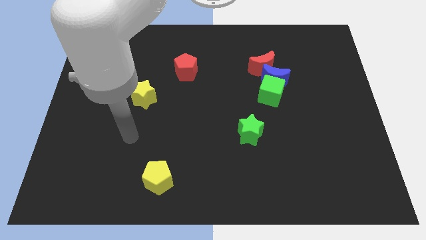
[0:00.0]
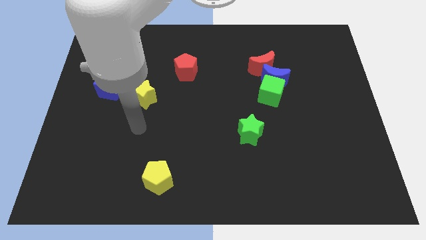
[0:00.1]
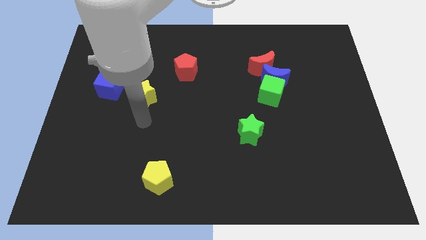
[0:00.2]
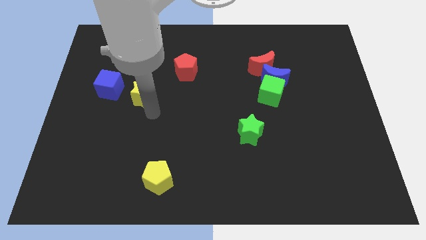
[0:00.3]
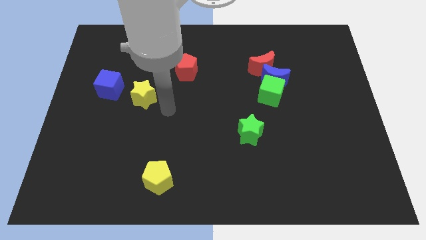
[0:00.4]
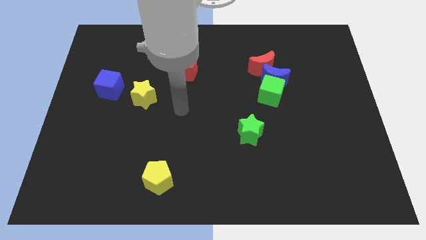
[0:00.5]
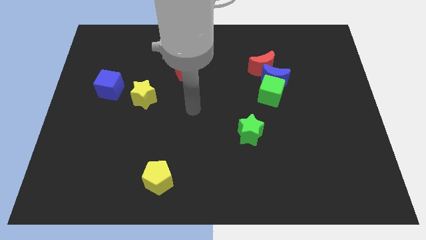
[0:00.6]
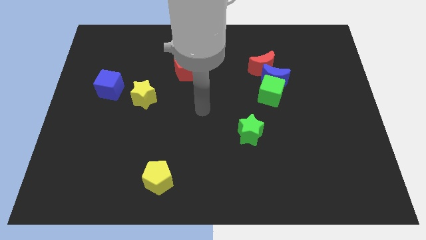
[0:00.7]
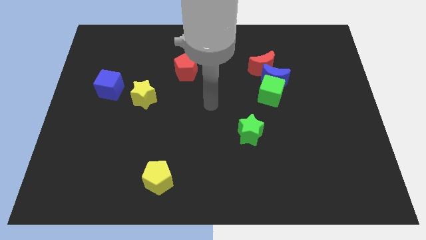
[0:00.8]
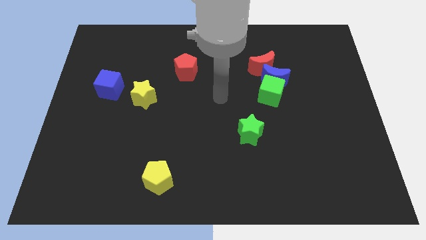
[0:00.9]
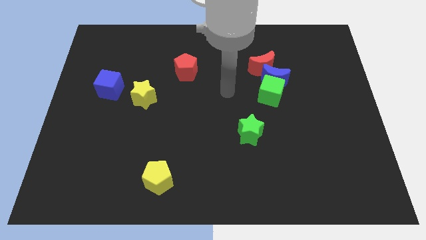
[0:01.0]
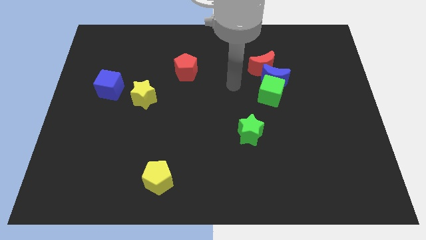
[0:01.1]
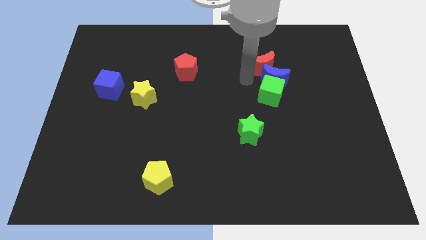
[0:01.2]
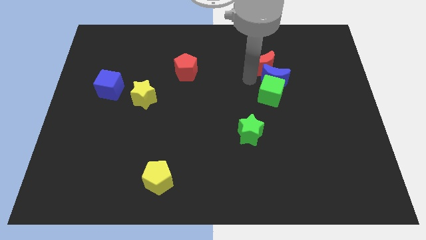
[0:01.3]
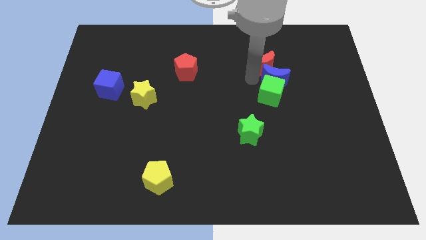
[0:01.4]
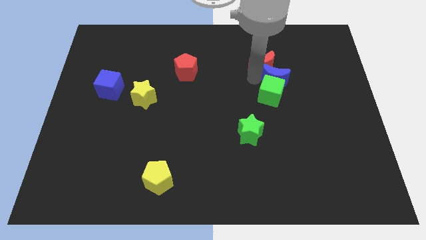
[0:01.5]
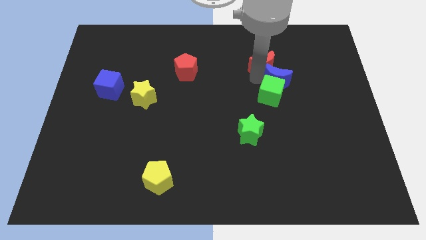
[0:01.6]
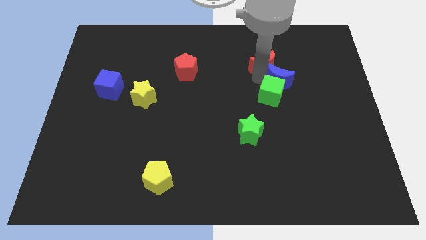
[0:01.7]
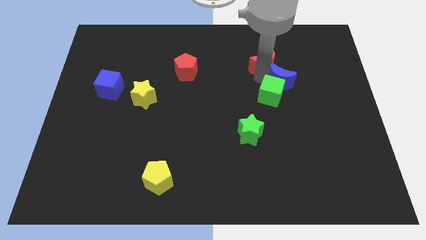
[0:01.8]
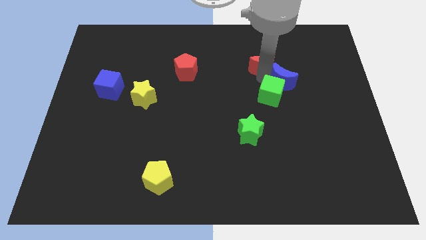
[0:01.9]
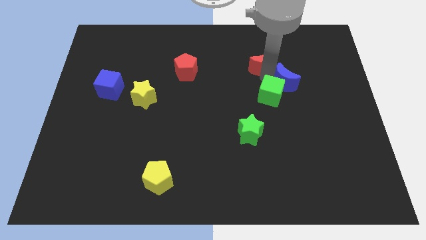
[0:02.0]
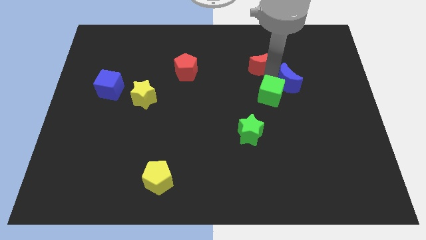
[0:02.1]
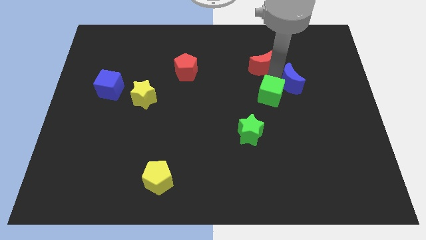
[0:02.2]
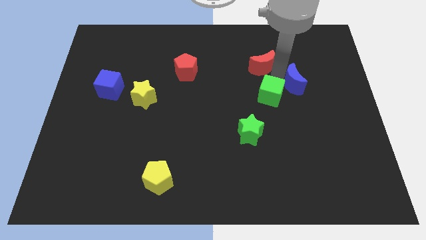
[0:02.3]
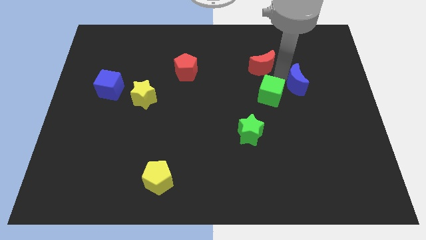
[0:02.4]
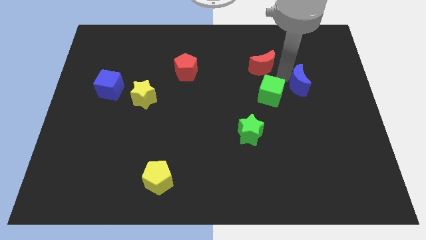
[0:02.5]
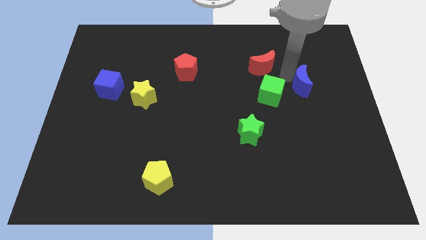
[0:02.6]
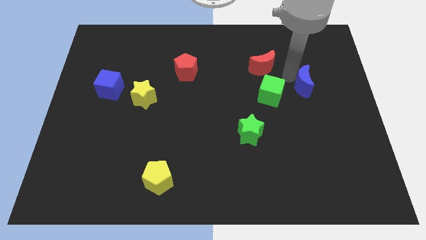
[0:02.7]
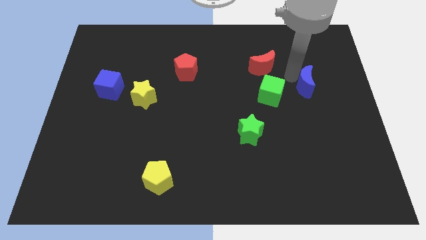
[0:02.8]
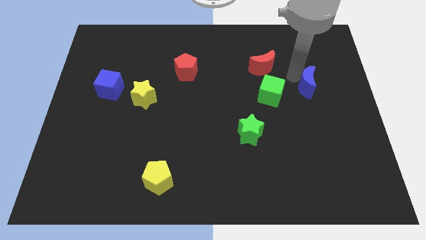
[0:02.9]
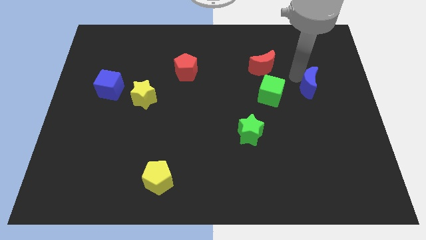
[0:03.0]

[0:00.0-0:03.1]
separate the blue moon from the green cube and red moon

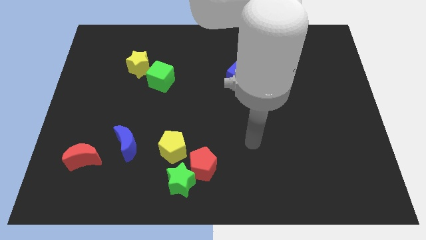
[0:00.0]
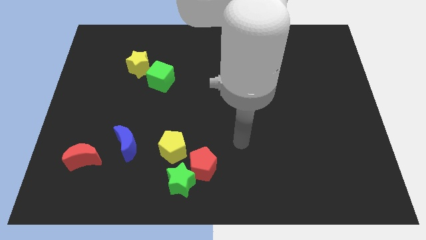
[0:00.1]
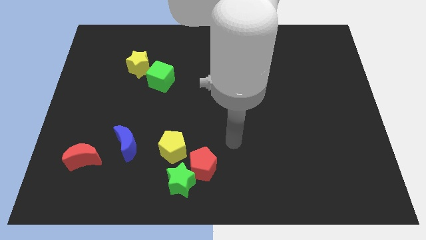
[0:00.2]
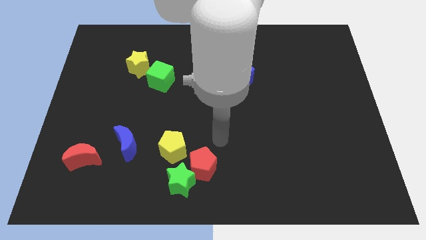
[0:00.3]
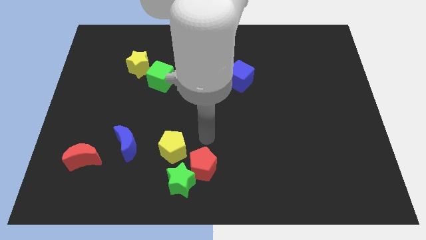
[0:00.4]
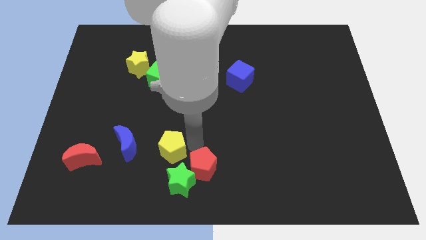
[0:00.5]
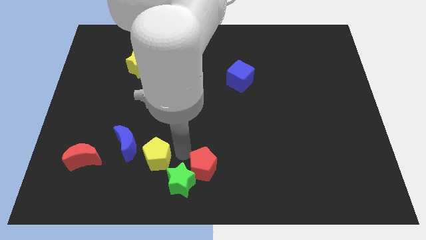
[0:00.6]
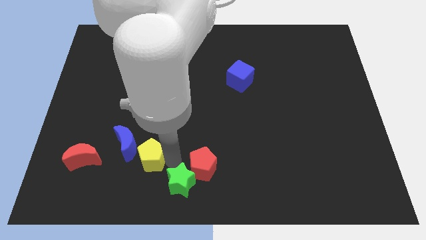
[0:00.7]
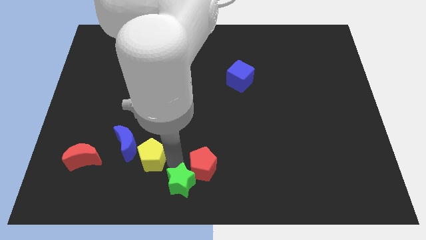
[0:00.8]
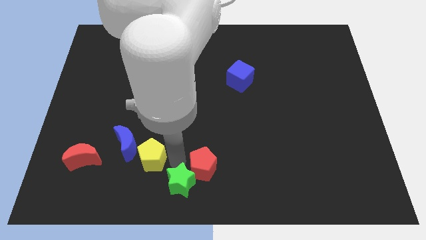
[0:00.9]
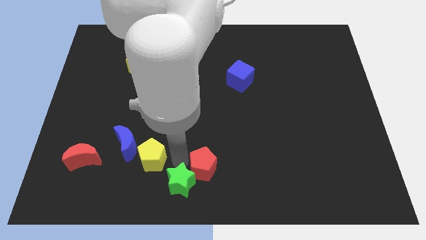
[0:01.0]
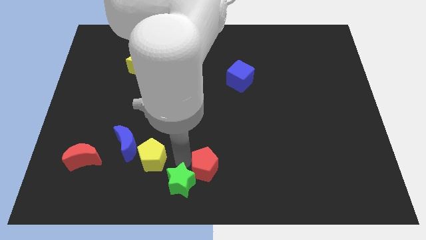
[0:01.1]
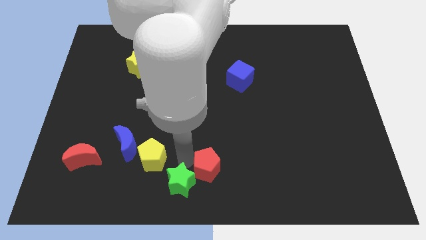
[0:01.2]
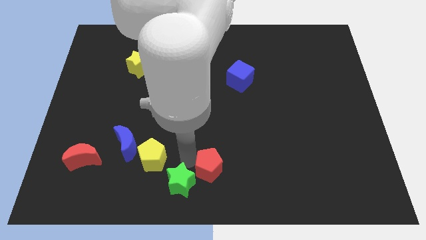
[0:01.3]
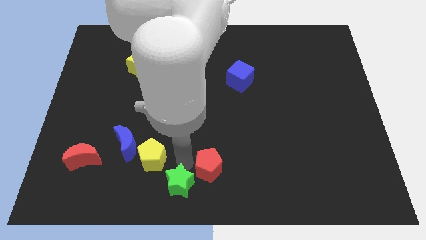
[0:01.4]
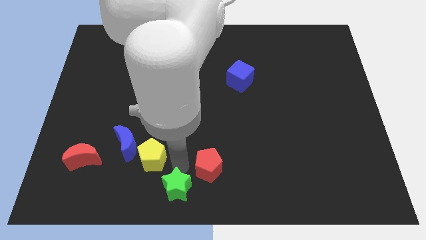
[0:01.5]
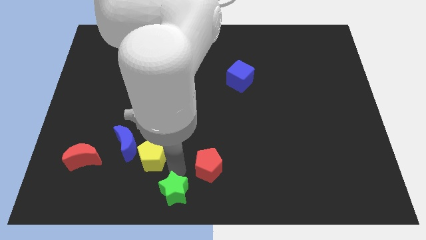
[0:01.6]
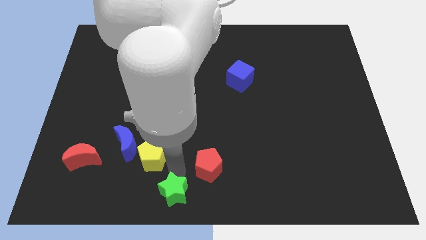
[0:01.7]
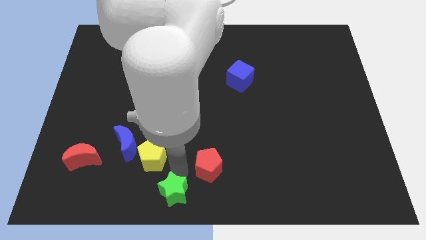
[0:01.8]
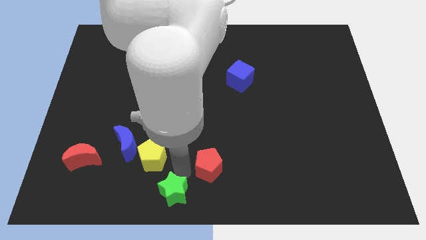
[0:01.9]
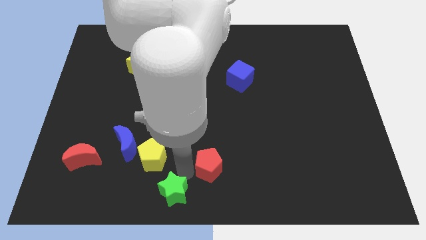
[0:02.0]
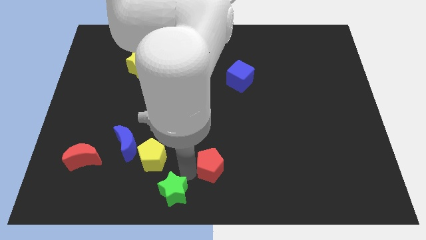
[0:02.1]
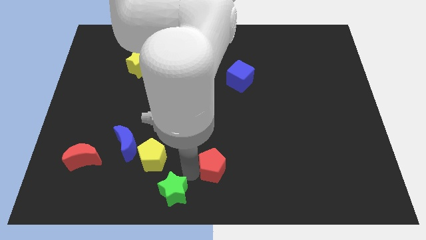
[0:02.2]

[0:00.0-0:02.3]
move the red pentagon away from the green star and yellow pentagon

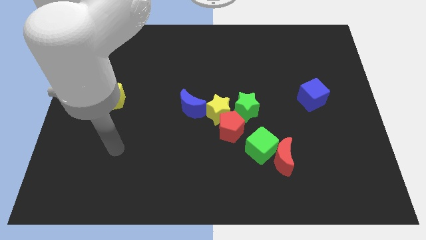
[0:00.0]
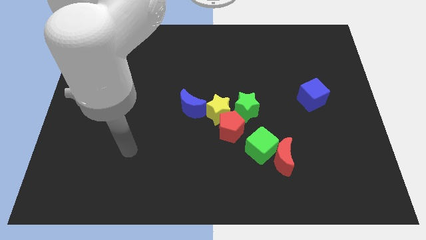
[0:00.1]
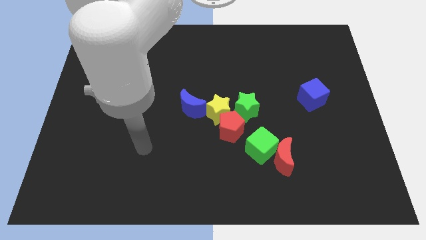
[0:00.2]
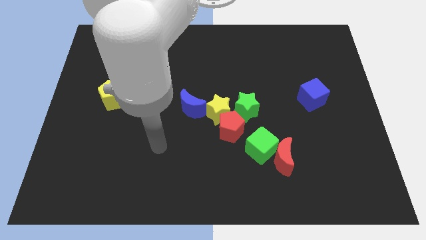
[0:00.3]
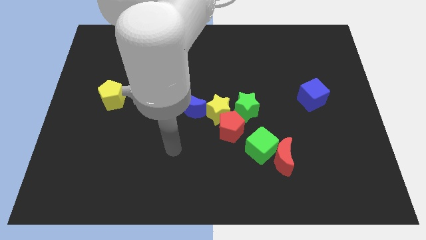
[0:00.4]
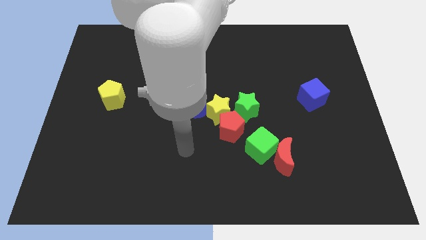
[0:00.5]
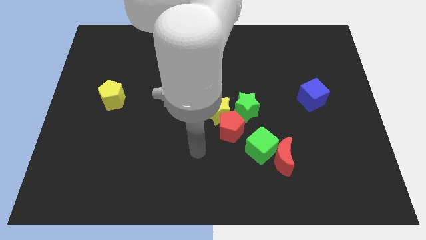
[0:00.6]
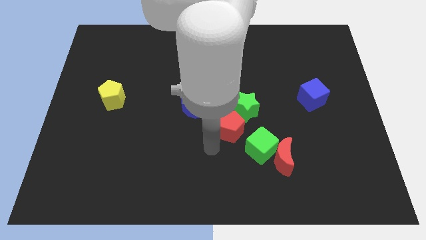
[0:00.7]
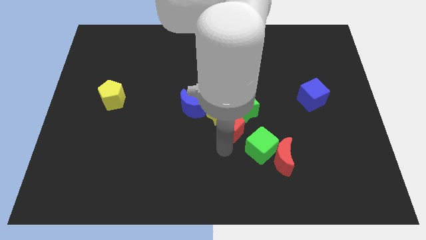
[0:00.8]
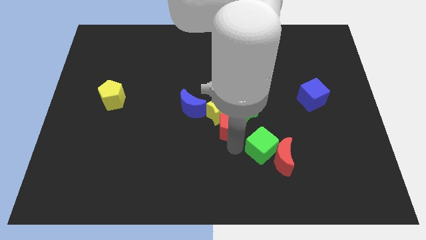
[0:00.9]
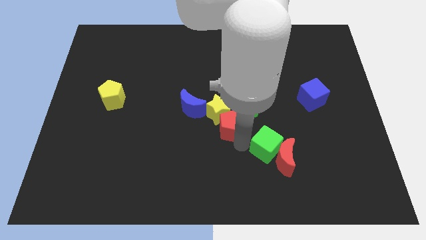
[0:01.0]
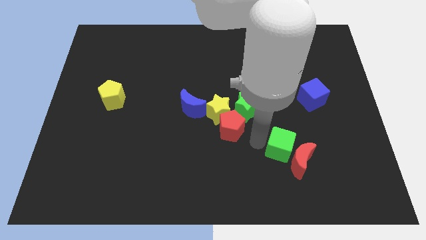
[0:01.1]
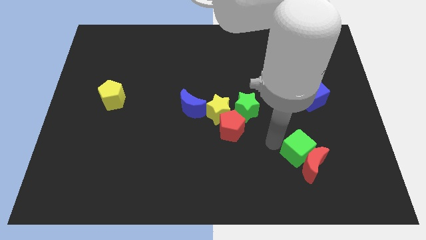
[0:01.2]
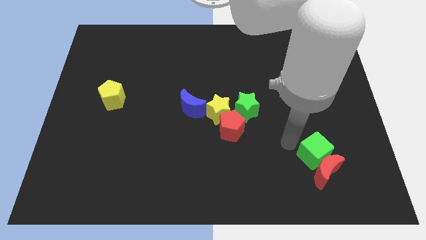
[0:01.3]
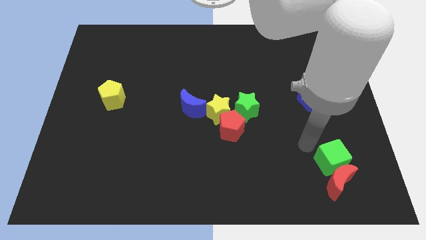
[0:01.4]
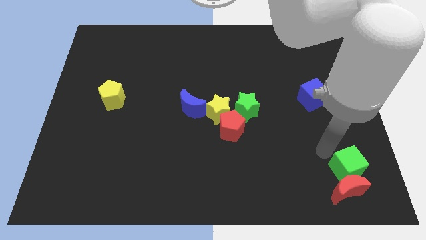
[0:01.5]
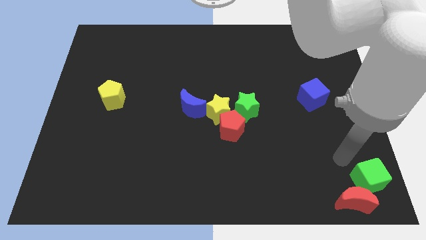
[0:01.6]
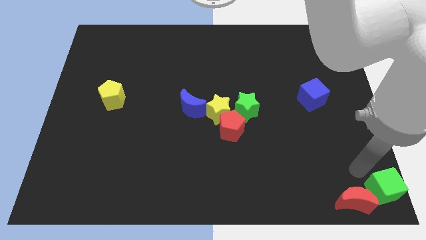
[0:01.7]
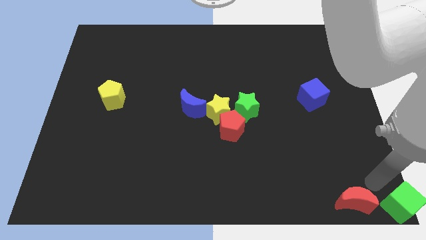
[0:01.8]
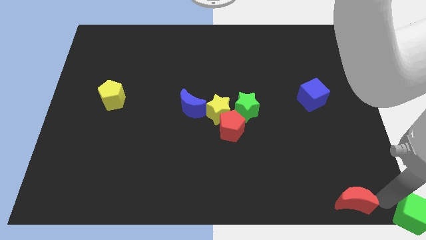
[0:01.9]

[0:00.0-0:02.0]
separate the red moon from the green cube

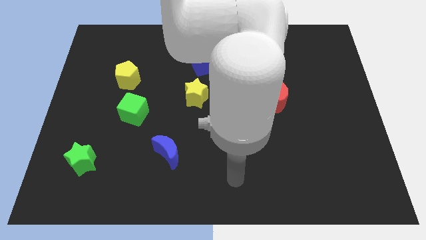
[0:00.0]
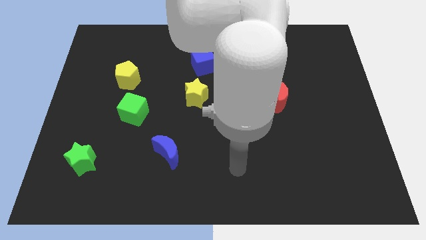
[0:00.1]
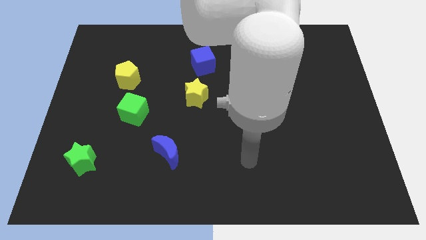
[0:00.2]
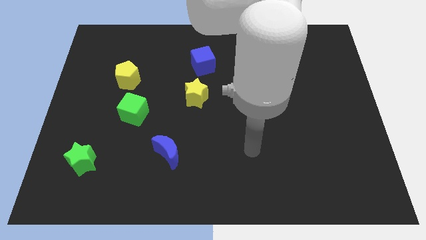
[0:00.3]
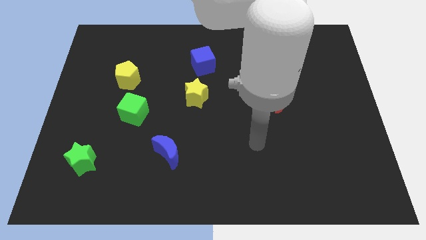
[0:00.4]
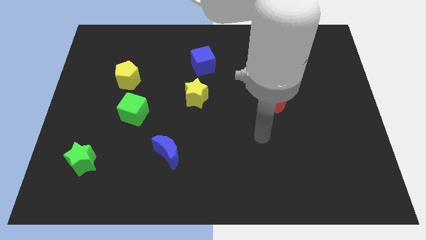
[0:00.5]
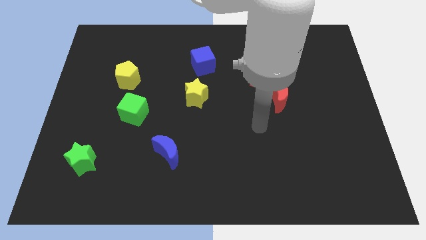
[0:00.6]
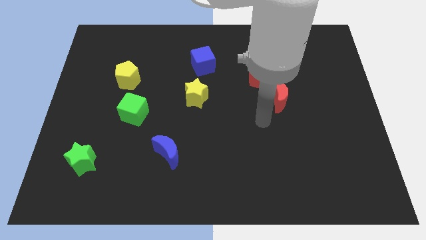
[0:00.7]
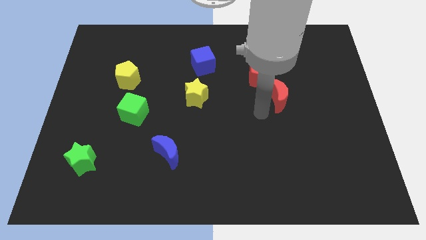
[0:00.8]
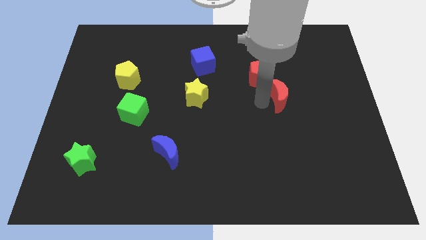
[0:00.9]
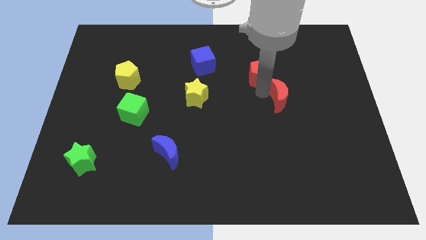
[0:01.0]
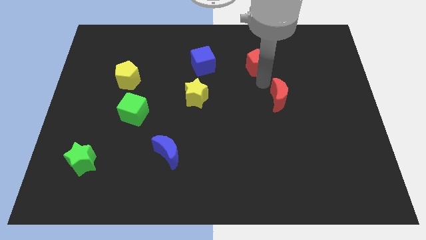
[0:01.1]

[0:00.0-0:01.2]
move the red moon away from the red pentagon

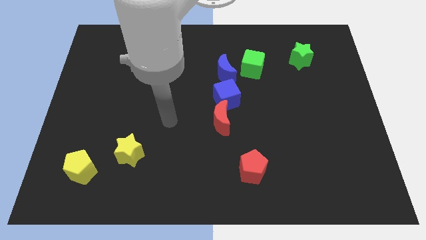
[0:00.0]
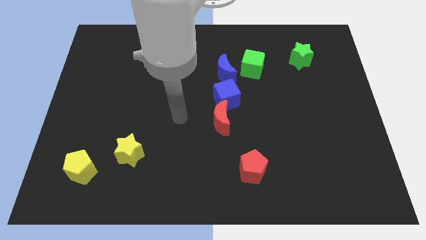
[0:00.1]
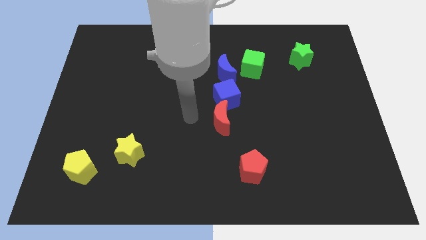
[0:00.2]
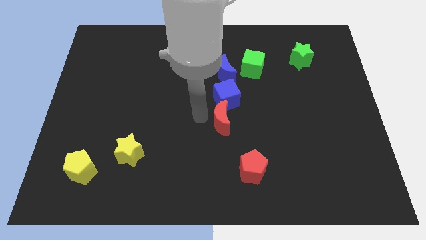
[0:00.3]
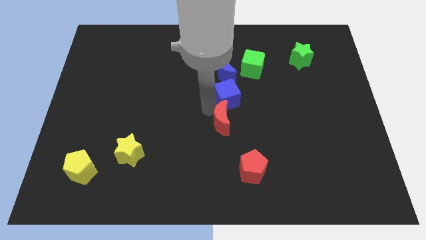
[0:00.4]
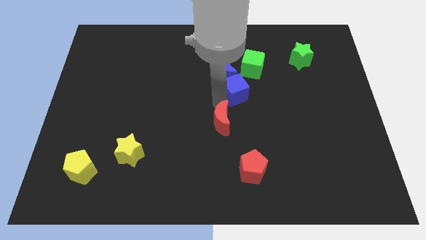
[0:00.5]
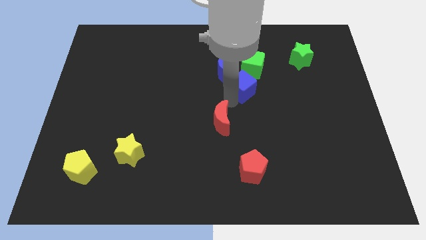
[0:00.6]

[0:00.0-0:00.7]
move the red moon away from the blue cube
